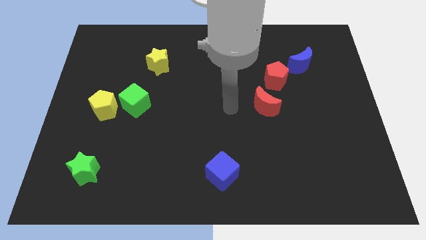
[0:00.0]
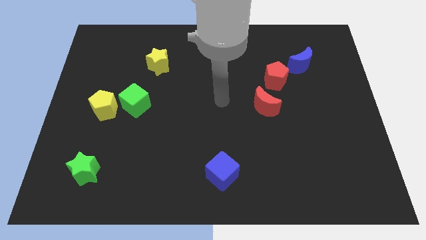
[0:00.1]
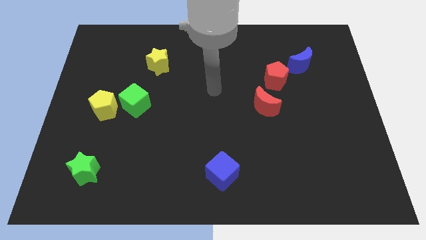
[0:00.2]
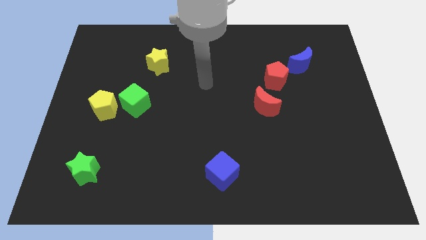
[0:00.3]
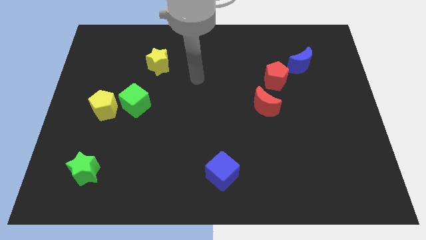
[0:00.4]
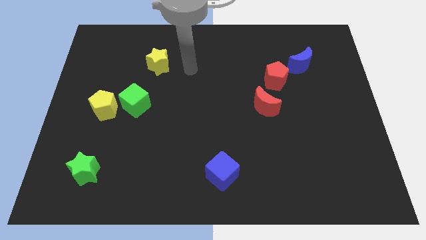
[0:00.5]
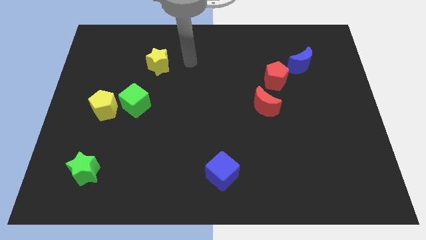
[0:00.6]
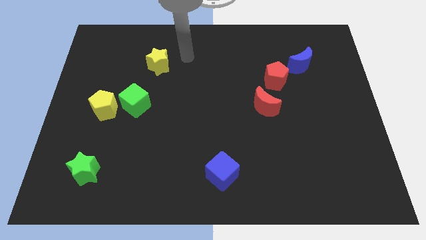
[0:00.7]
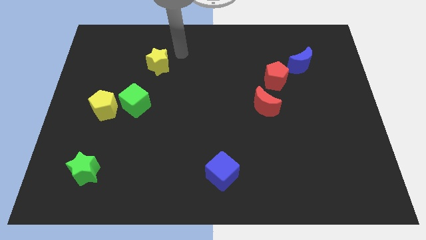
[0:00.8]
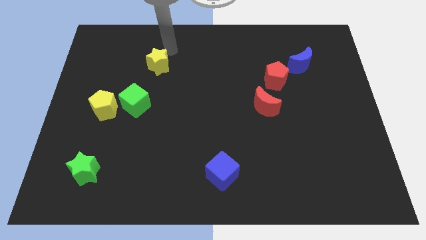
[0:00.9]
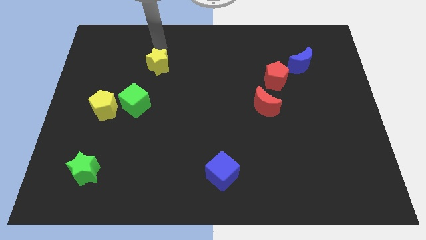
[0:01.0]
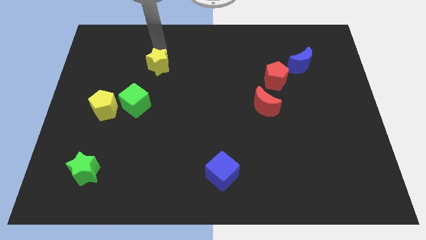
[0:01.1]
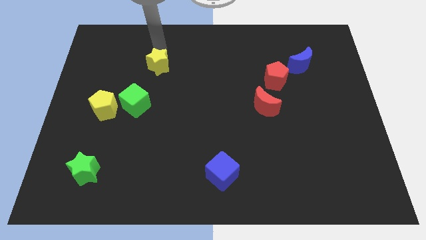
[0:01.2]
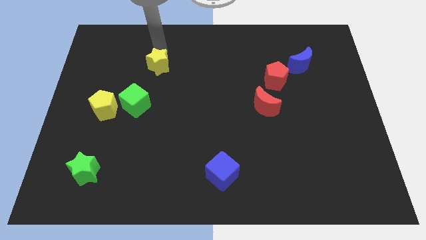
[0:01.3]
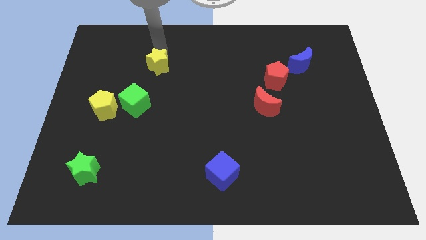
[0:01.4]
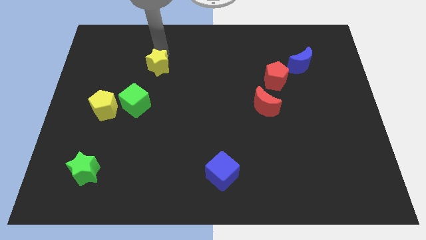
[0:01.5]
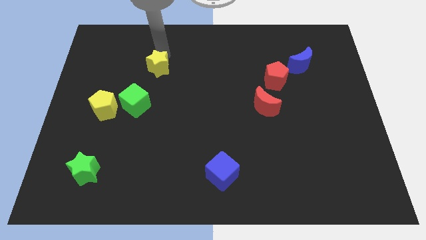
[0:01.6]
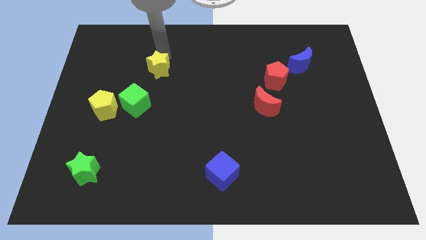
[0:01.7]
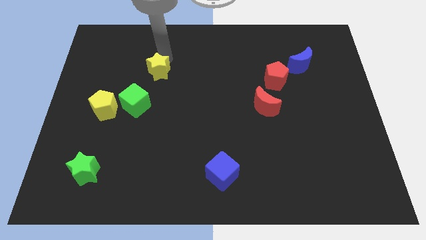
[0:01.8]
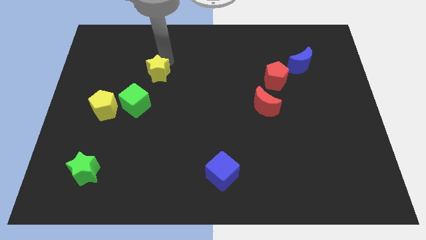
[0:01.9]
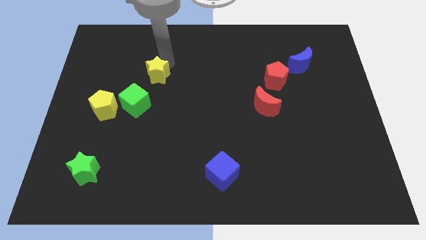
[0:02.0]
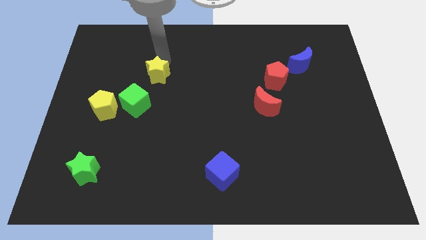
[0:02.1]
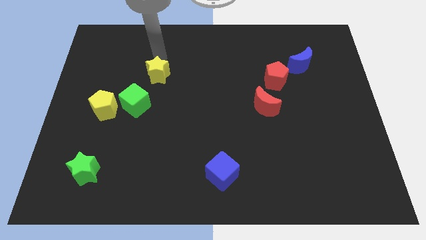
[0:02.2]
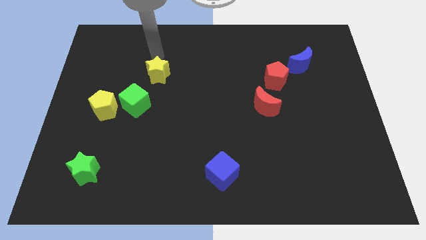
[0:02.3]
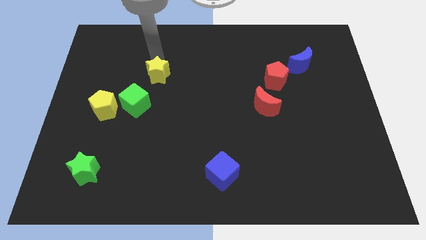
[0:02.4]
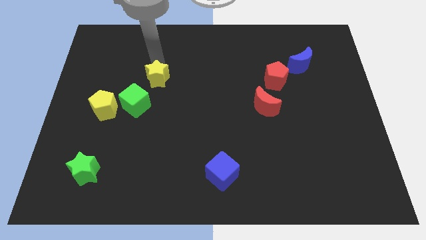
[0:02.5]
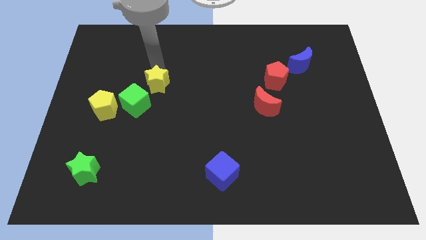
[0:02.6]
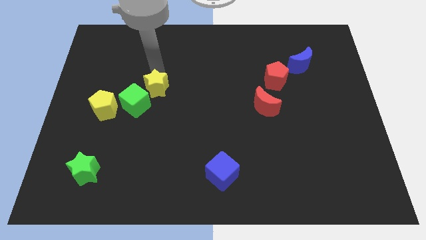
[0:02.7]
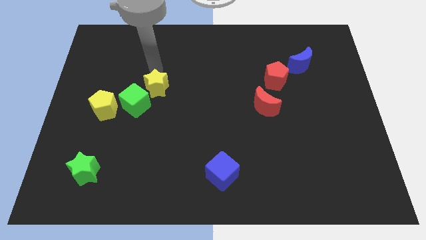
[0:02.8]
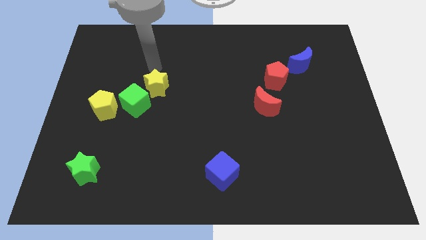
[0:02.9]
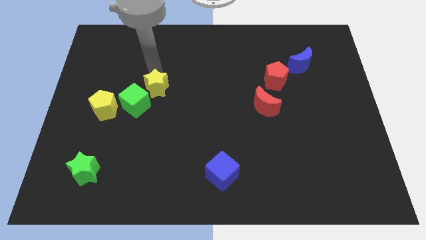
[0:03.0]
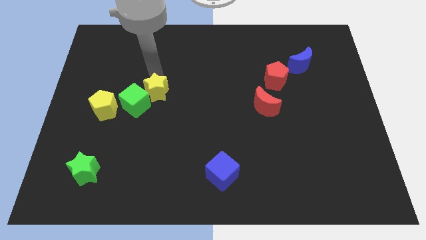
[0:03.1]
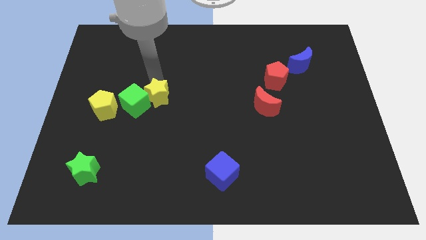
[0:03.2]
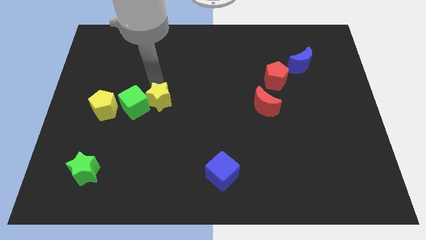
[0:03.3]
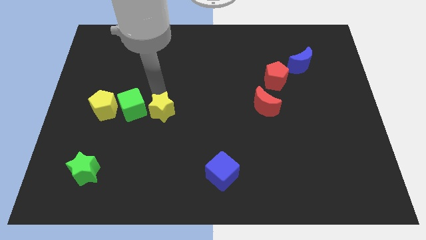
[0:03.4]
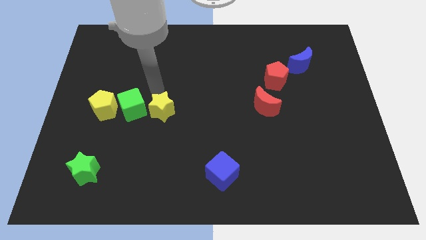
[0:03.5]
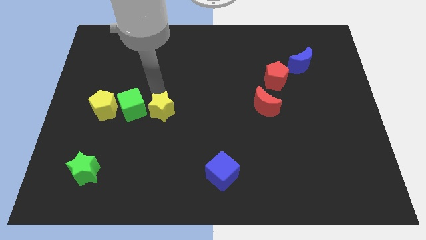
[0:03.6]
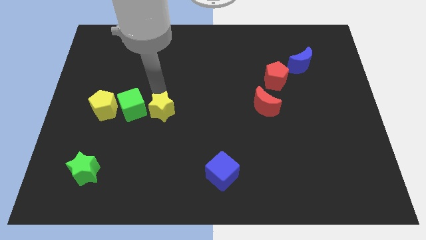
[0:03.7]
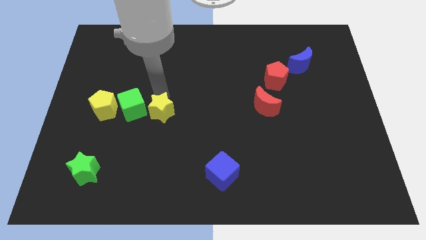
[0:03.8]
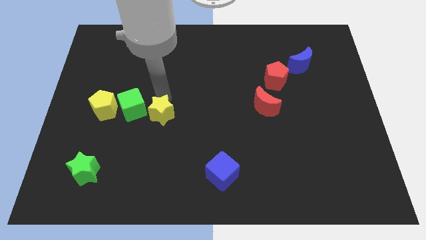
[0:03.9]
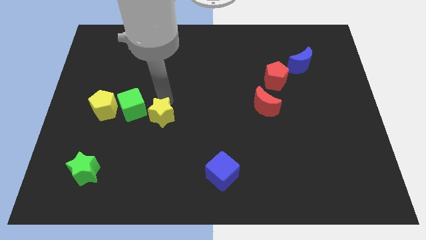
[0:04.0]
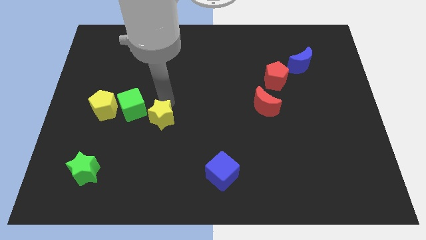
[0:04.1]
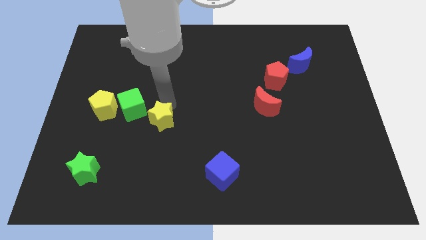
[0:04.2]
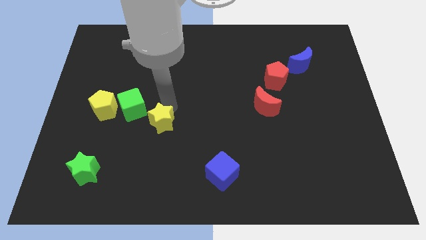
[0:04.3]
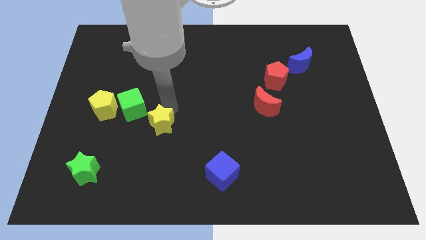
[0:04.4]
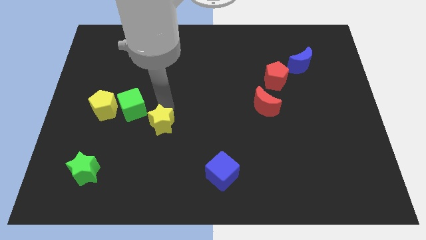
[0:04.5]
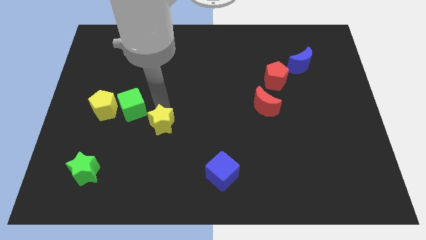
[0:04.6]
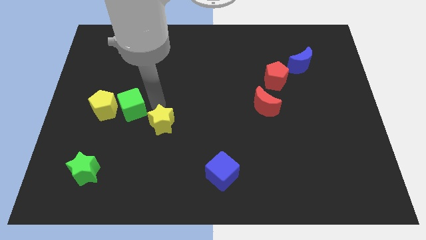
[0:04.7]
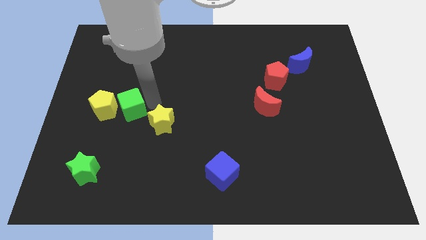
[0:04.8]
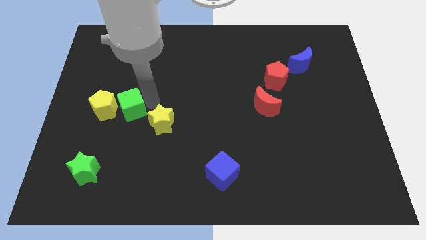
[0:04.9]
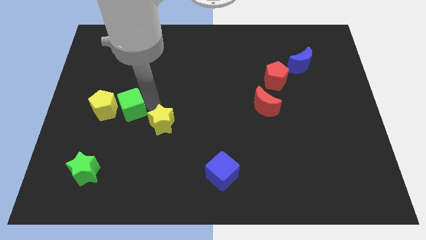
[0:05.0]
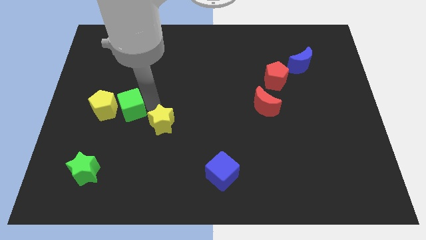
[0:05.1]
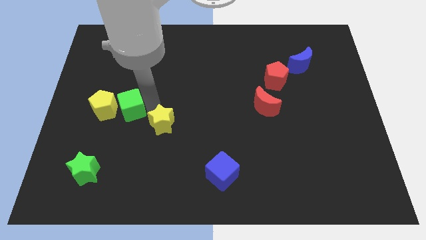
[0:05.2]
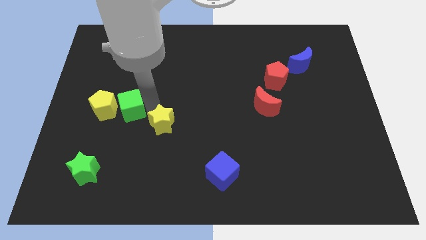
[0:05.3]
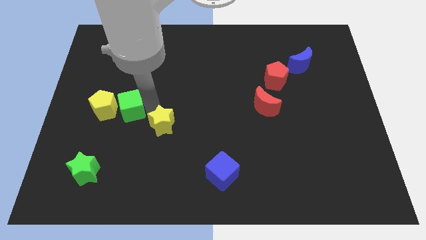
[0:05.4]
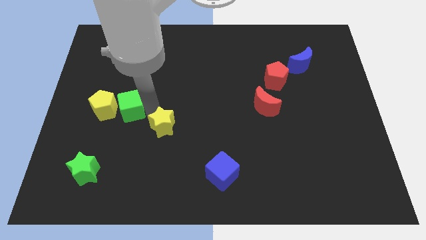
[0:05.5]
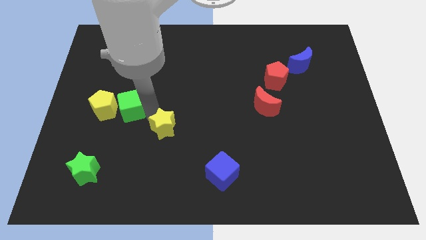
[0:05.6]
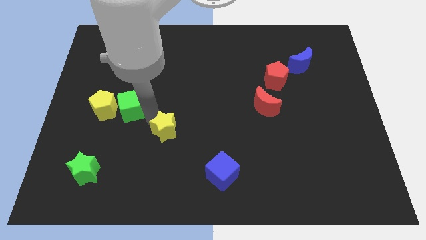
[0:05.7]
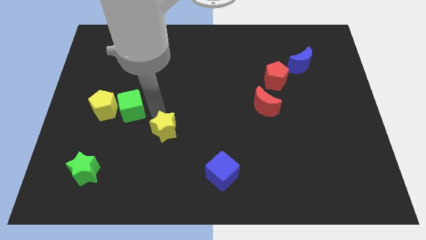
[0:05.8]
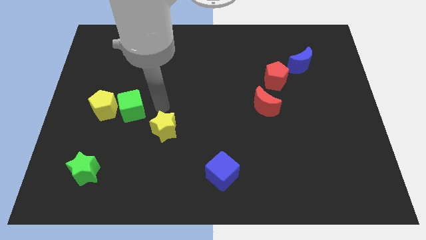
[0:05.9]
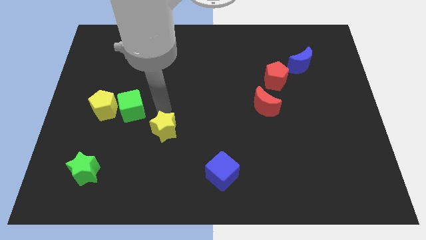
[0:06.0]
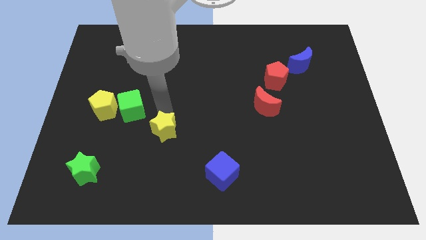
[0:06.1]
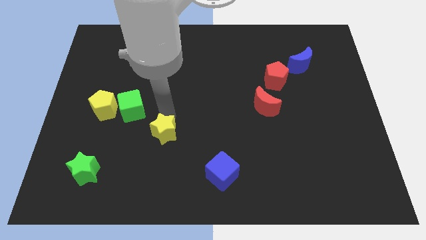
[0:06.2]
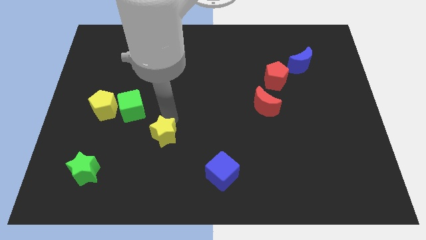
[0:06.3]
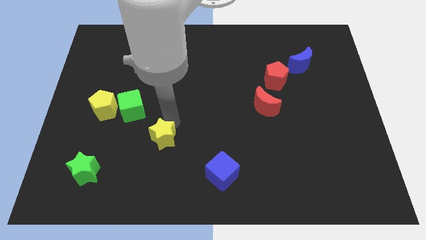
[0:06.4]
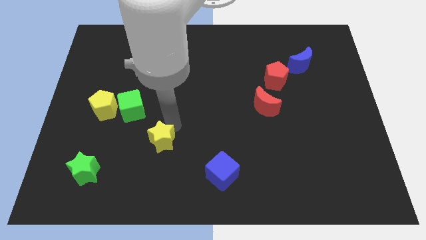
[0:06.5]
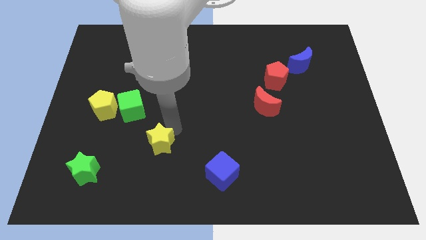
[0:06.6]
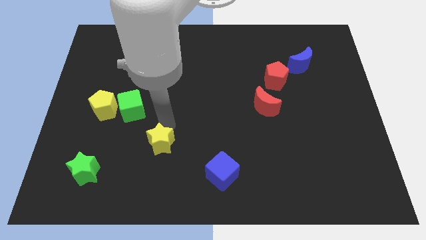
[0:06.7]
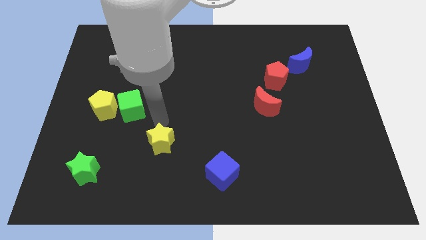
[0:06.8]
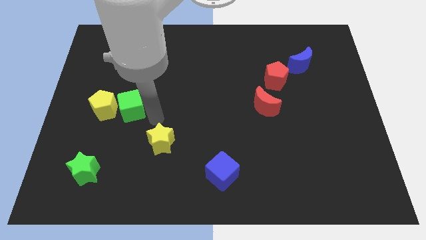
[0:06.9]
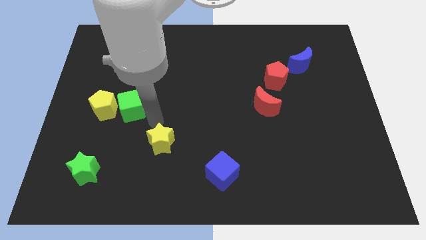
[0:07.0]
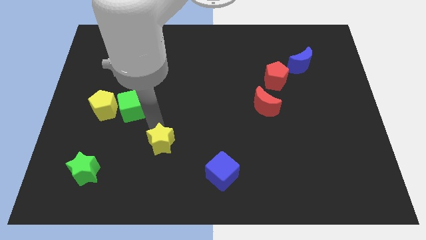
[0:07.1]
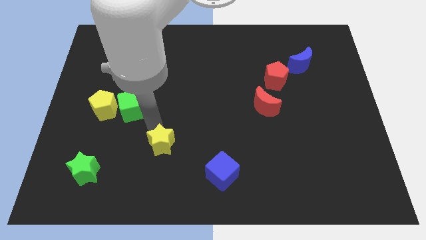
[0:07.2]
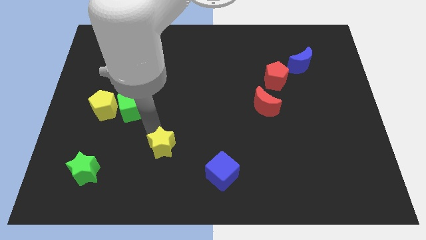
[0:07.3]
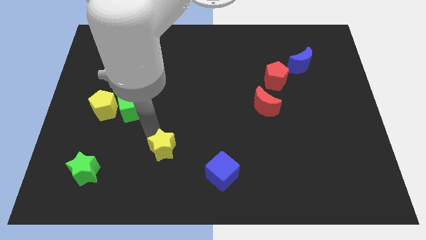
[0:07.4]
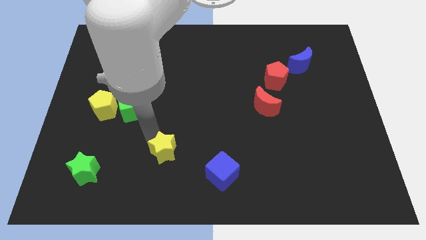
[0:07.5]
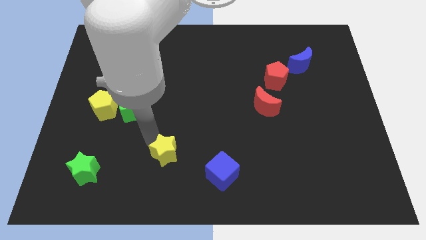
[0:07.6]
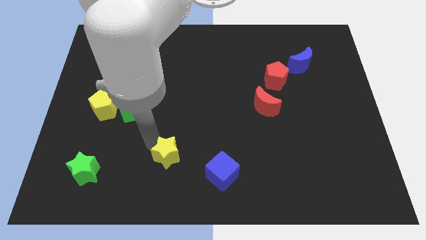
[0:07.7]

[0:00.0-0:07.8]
push the yellow star left of the blue cube

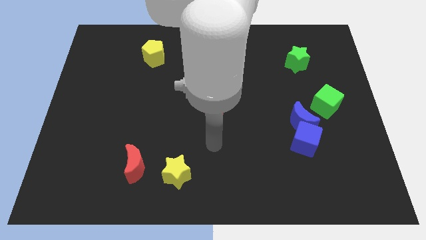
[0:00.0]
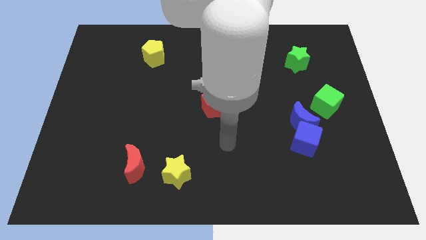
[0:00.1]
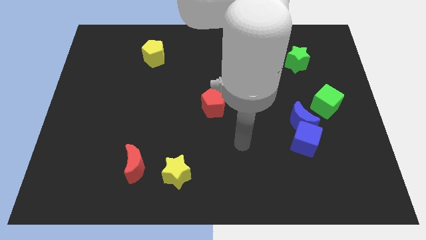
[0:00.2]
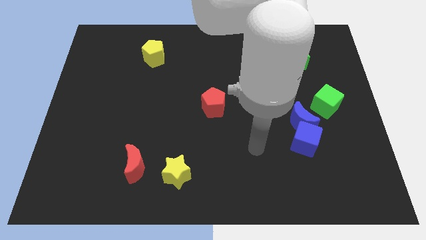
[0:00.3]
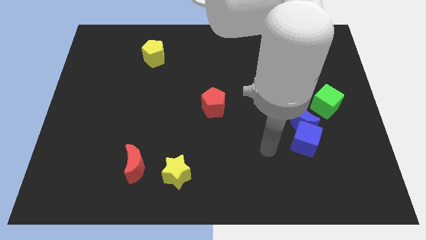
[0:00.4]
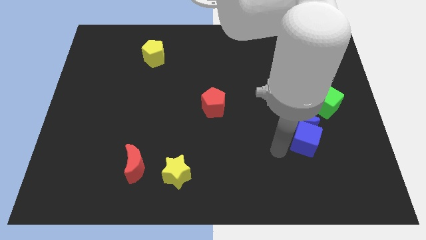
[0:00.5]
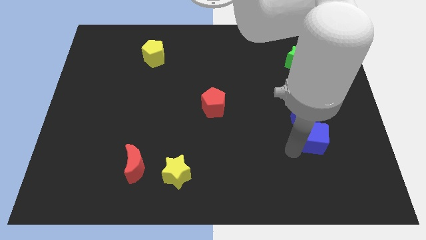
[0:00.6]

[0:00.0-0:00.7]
move the blue moon left of the green cube
